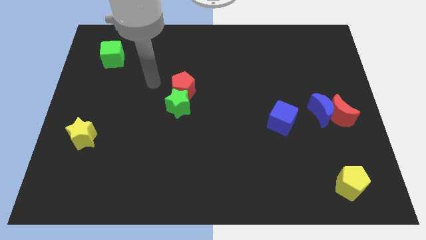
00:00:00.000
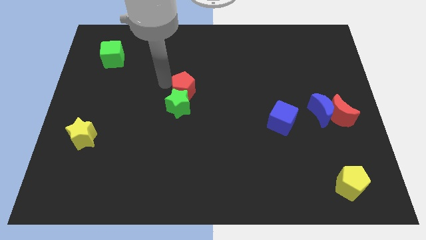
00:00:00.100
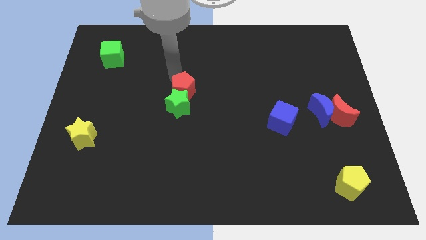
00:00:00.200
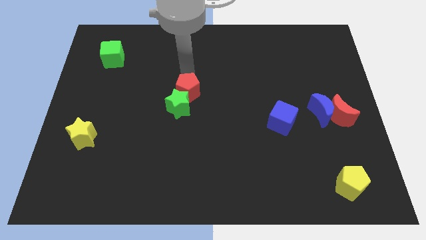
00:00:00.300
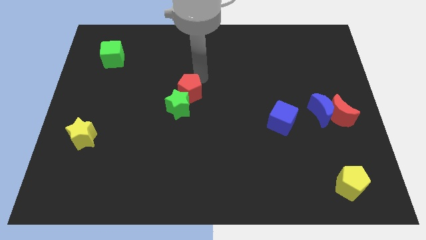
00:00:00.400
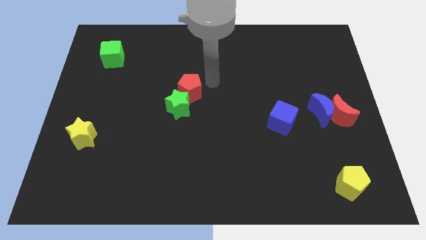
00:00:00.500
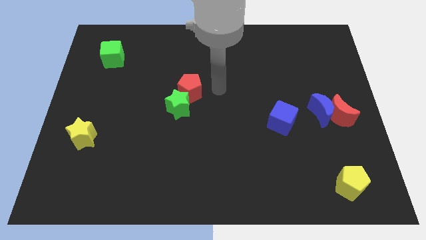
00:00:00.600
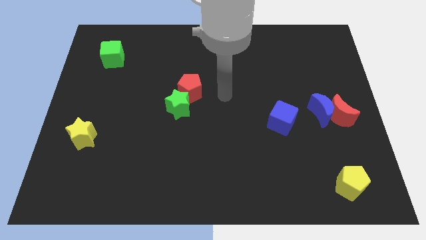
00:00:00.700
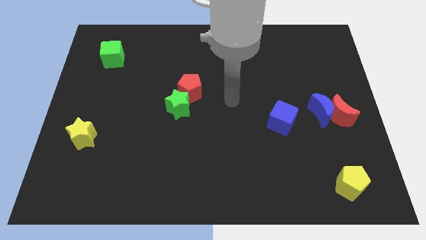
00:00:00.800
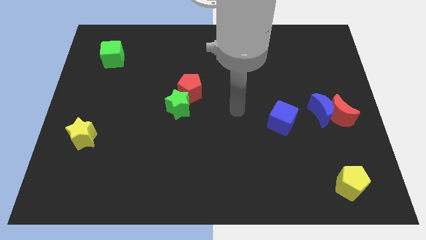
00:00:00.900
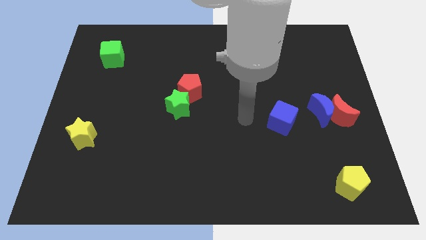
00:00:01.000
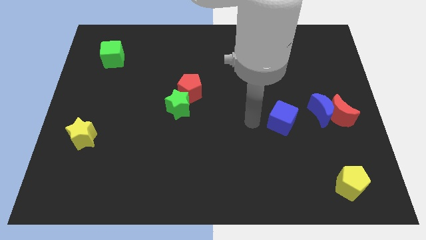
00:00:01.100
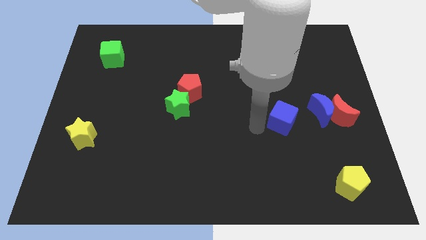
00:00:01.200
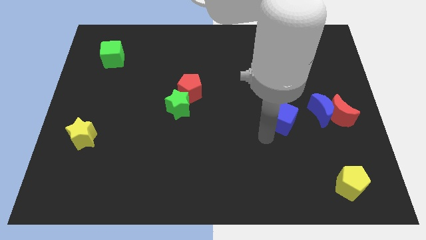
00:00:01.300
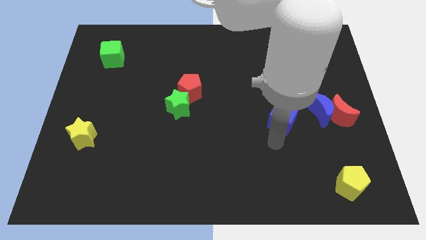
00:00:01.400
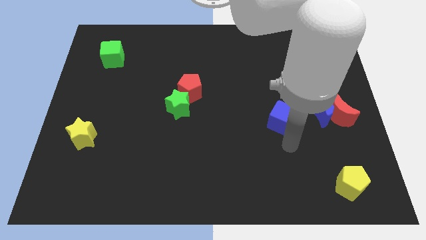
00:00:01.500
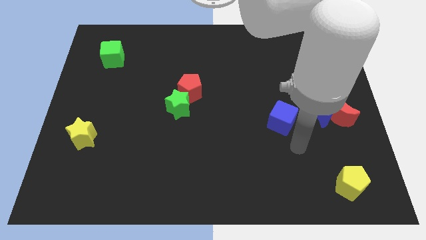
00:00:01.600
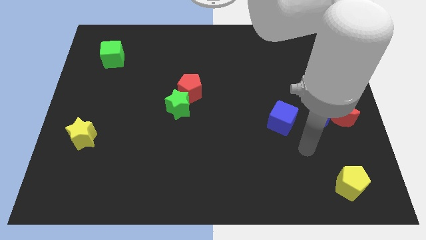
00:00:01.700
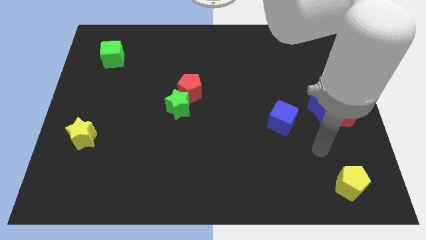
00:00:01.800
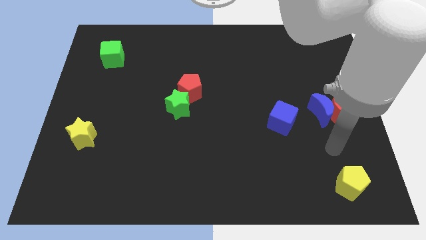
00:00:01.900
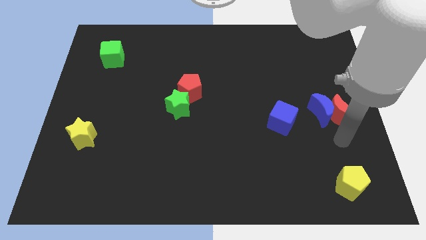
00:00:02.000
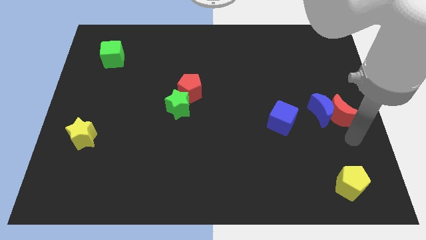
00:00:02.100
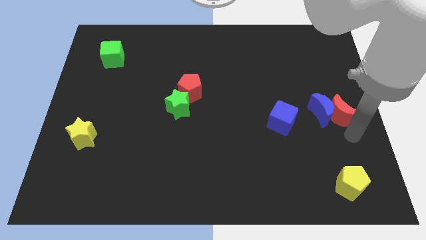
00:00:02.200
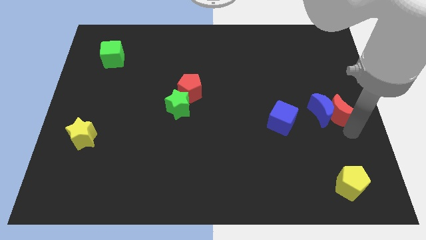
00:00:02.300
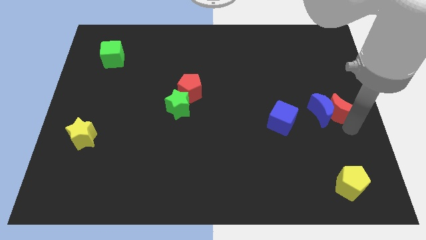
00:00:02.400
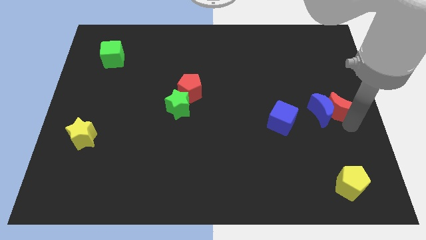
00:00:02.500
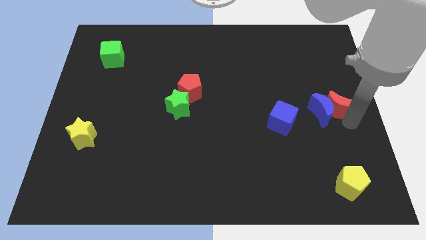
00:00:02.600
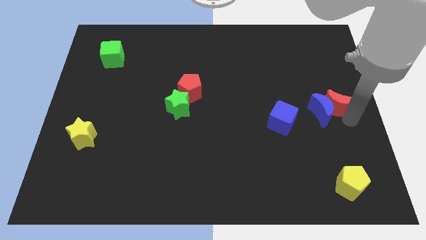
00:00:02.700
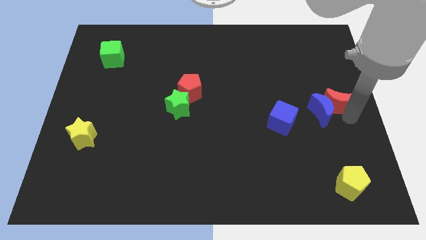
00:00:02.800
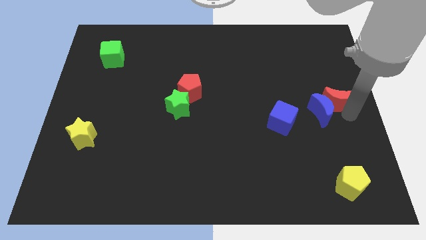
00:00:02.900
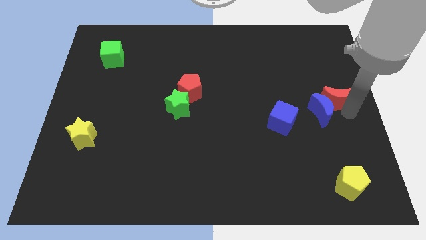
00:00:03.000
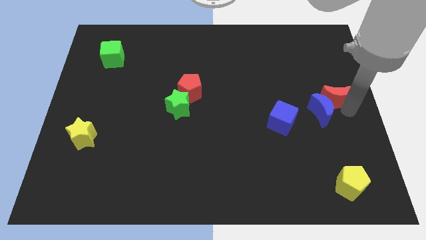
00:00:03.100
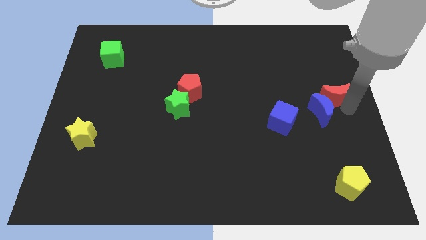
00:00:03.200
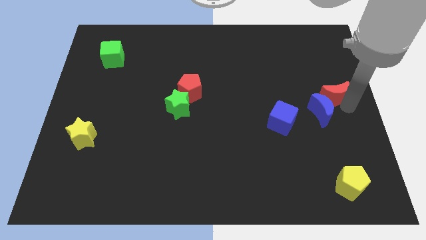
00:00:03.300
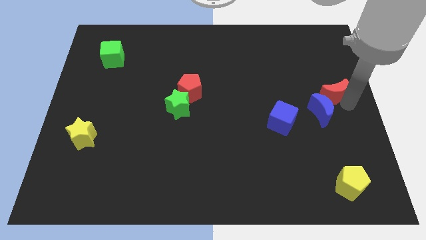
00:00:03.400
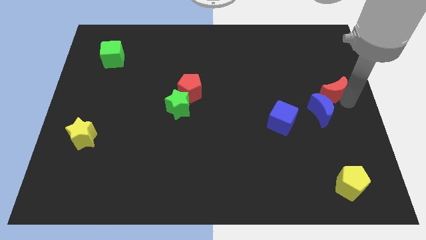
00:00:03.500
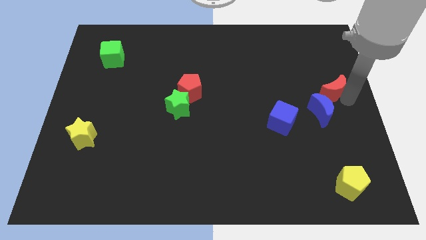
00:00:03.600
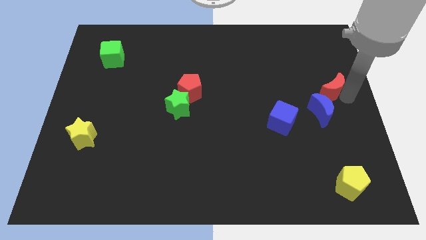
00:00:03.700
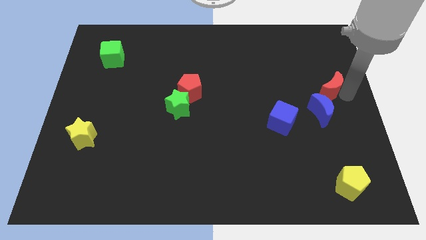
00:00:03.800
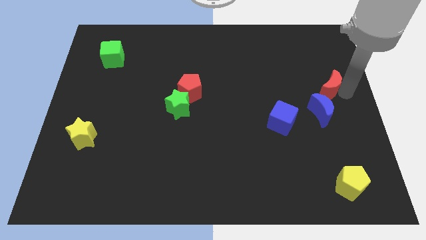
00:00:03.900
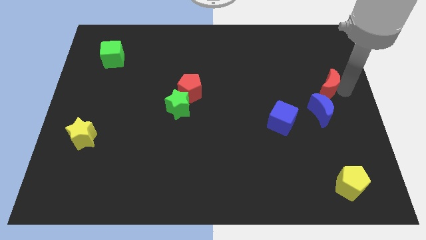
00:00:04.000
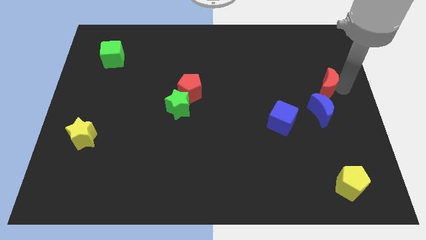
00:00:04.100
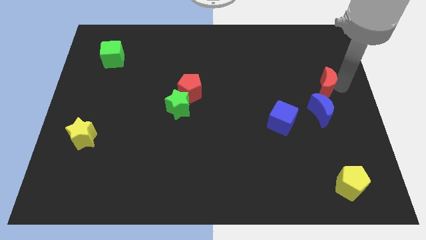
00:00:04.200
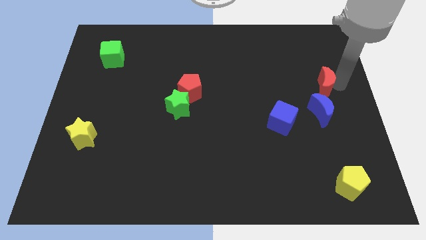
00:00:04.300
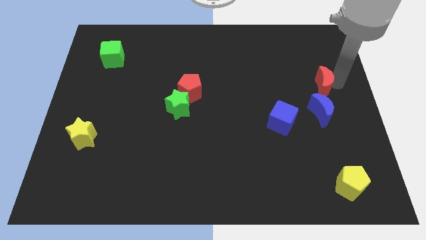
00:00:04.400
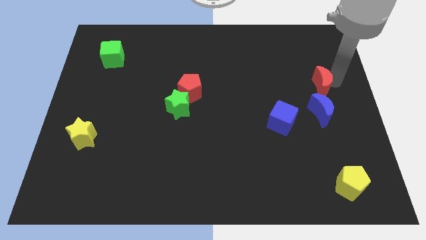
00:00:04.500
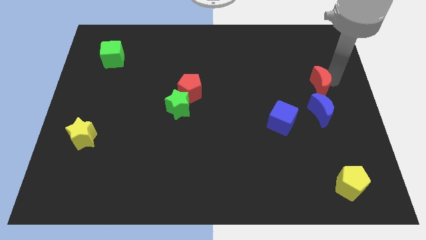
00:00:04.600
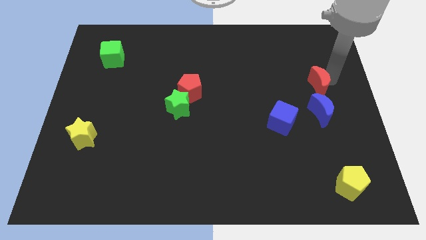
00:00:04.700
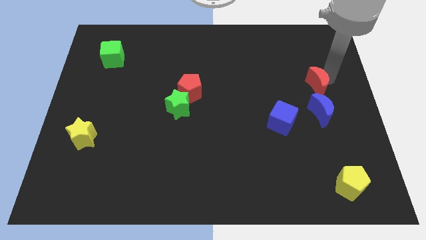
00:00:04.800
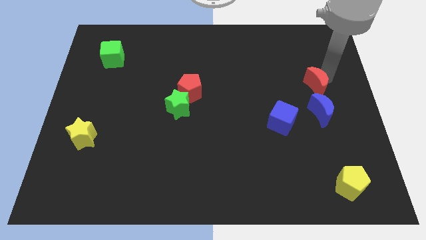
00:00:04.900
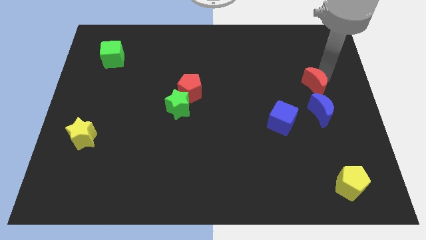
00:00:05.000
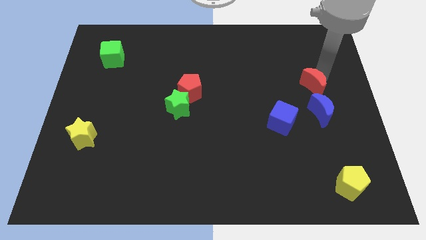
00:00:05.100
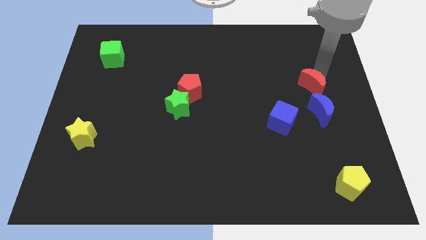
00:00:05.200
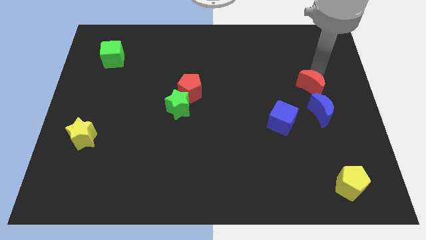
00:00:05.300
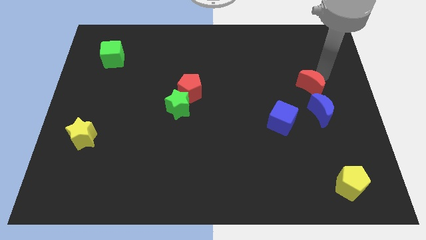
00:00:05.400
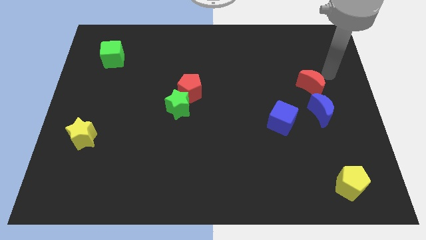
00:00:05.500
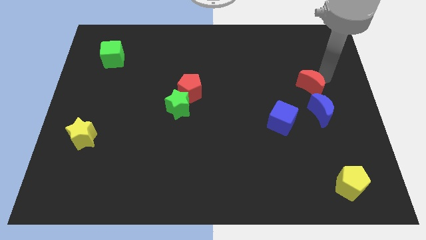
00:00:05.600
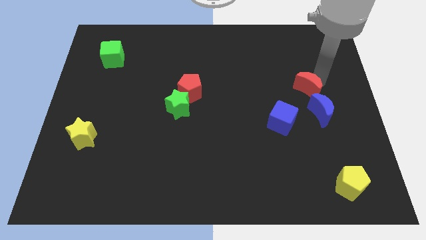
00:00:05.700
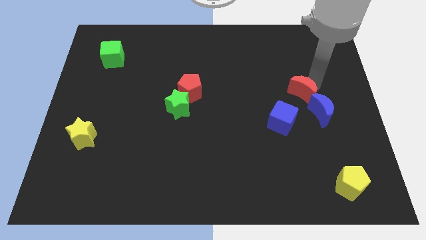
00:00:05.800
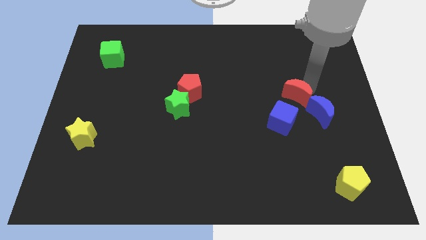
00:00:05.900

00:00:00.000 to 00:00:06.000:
slightly slide the red moon to the left

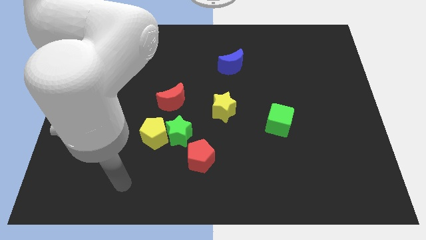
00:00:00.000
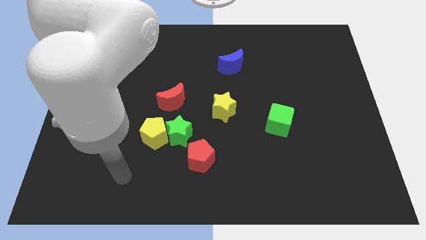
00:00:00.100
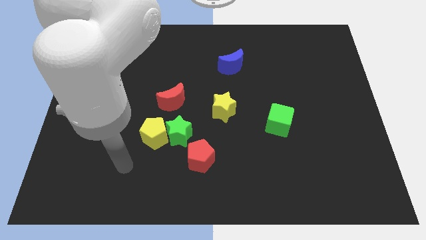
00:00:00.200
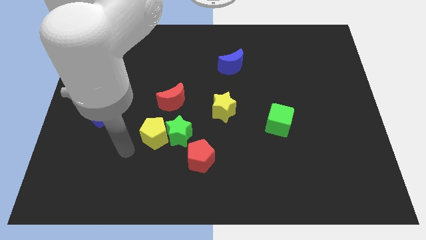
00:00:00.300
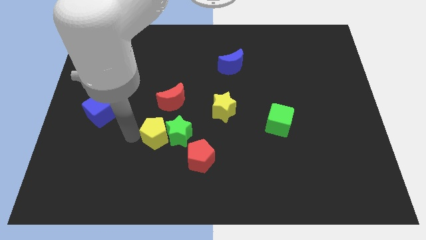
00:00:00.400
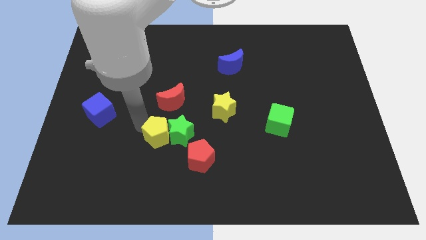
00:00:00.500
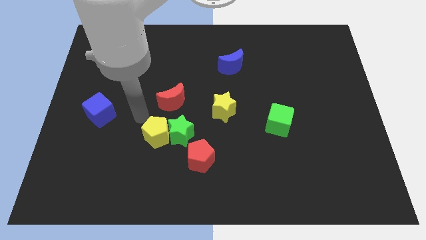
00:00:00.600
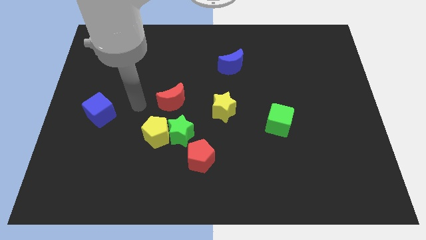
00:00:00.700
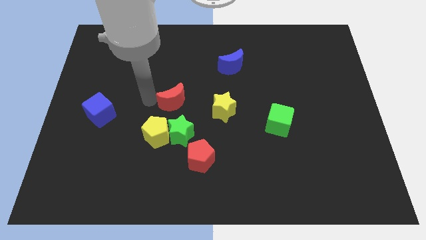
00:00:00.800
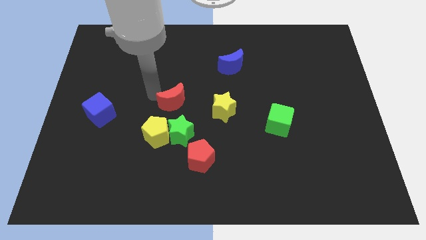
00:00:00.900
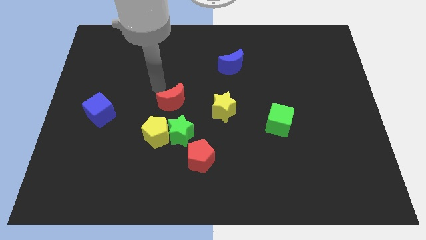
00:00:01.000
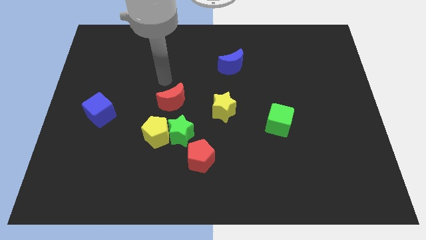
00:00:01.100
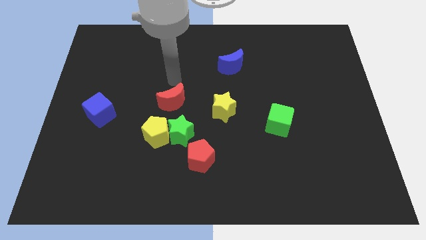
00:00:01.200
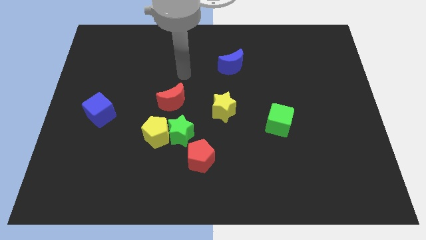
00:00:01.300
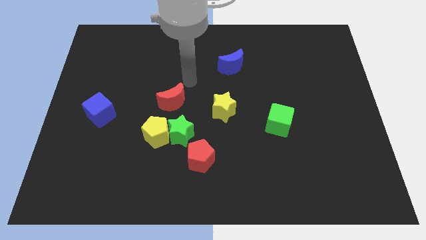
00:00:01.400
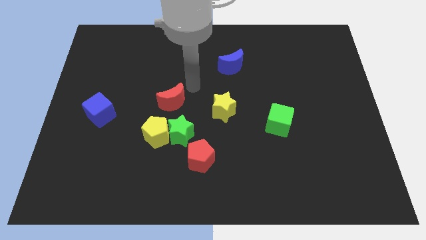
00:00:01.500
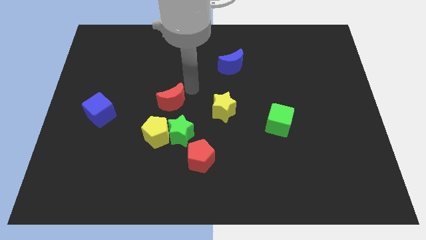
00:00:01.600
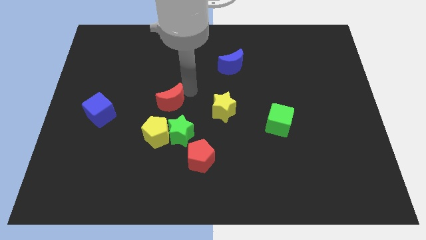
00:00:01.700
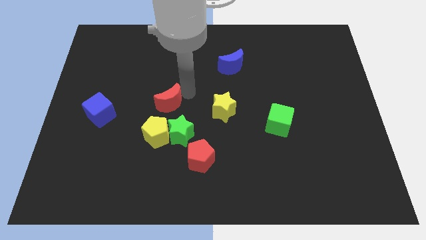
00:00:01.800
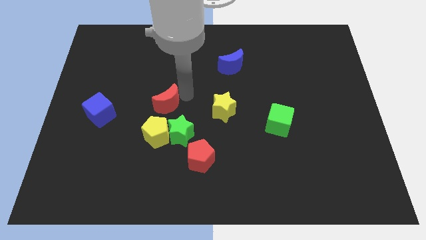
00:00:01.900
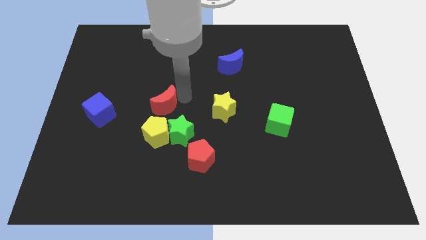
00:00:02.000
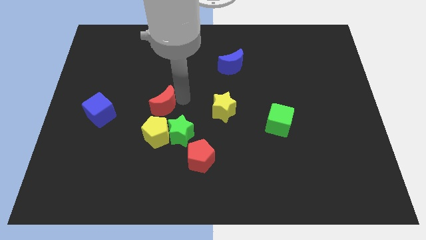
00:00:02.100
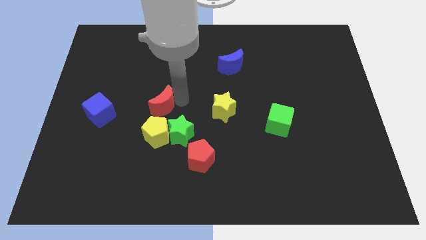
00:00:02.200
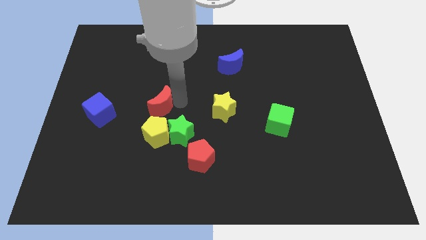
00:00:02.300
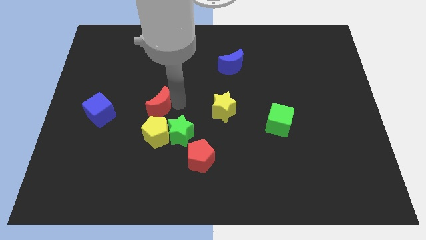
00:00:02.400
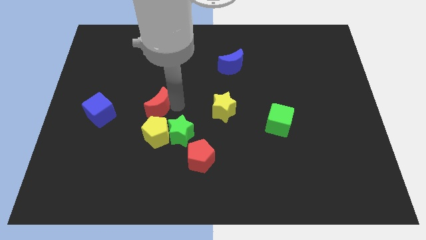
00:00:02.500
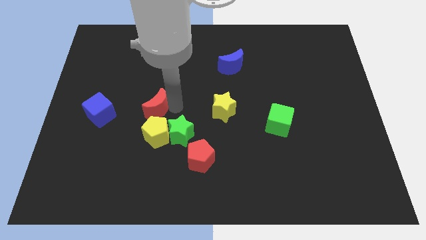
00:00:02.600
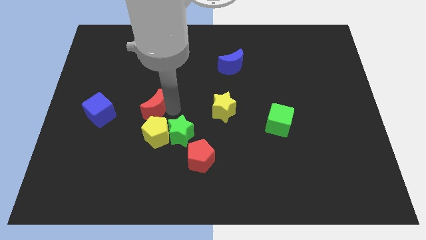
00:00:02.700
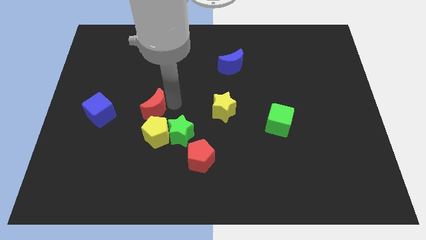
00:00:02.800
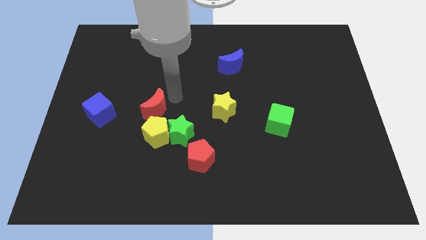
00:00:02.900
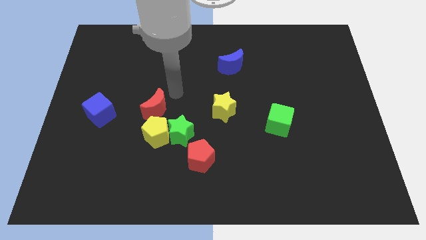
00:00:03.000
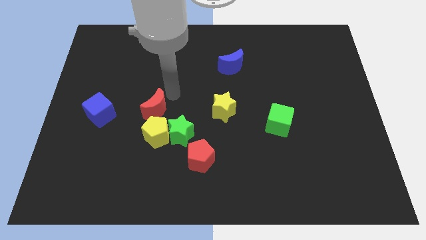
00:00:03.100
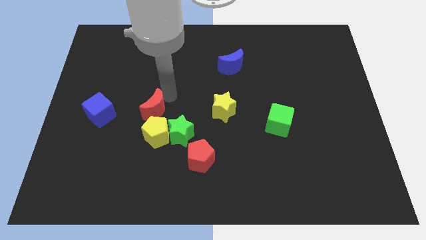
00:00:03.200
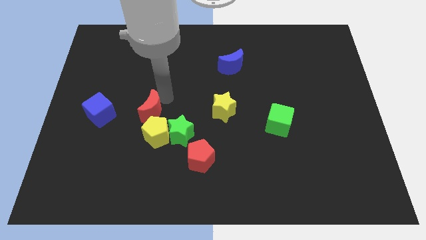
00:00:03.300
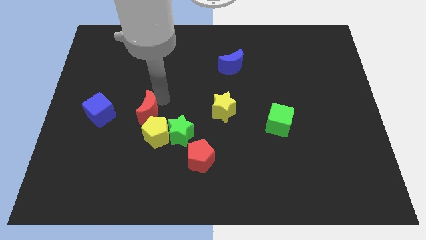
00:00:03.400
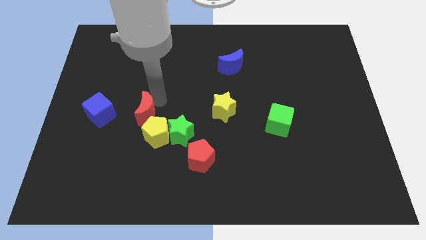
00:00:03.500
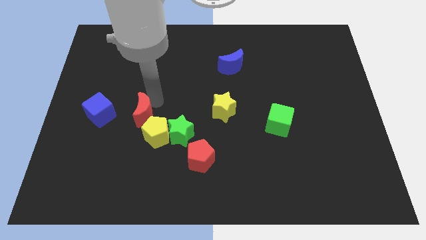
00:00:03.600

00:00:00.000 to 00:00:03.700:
push the red moon down and then left a little
